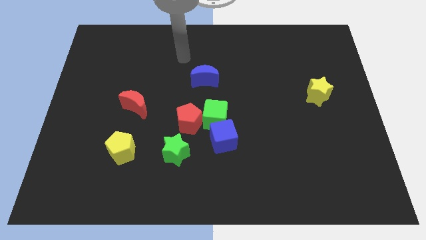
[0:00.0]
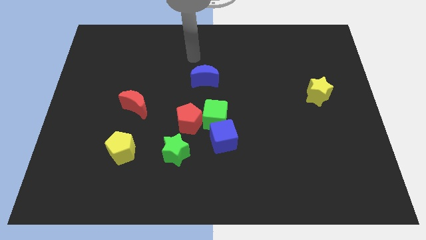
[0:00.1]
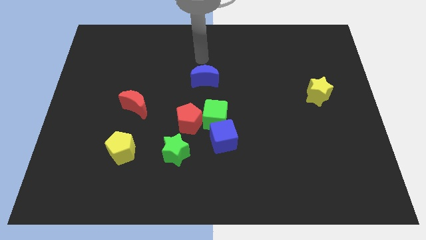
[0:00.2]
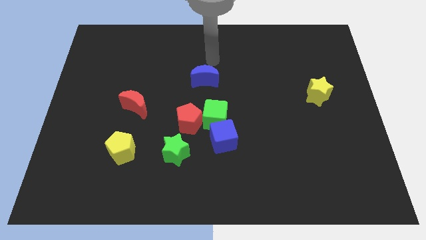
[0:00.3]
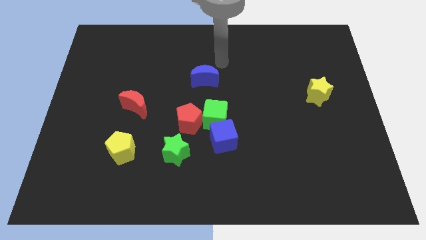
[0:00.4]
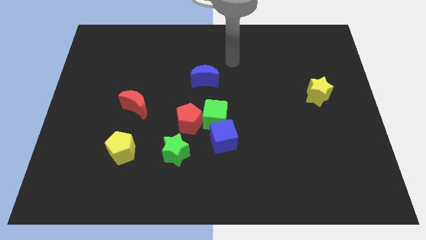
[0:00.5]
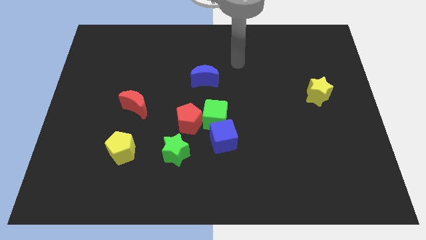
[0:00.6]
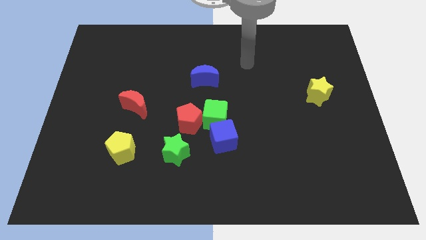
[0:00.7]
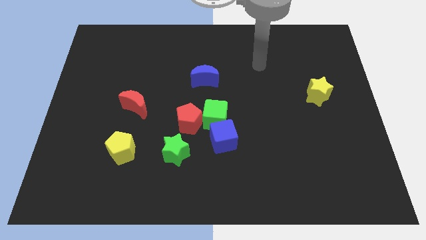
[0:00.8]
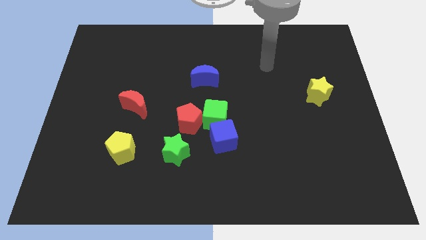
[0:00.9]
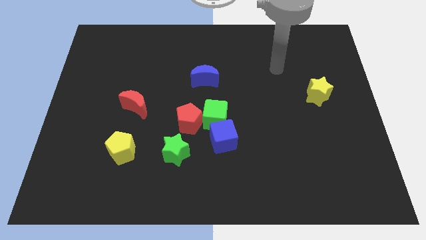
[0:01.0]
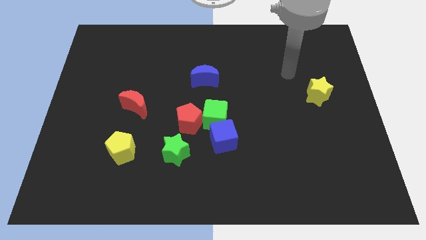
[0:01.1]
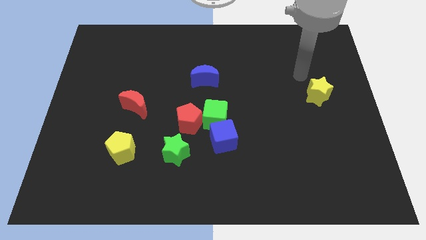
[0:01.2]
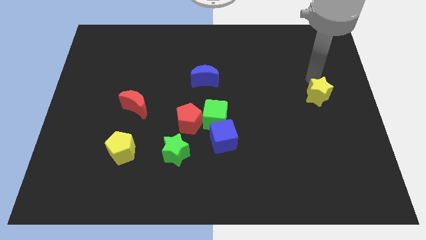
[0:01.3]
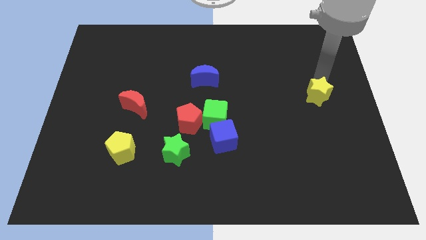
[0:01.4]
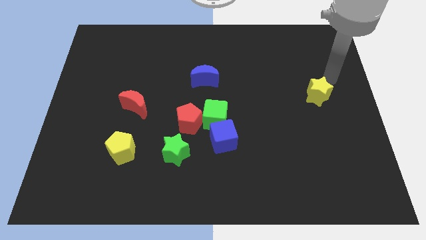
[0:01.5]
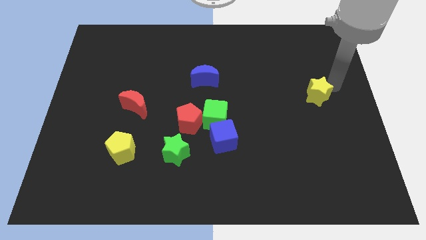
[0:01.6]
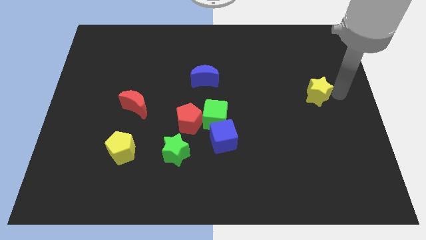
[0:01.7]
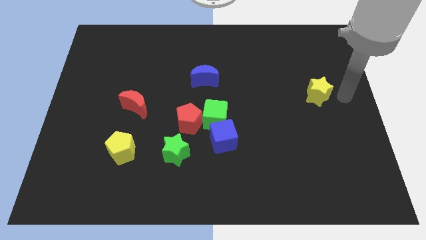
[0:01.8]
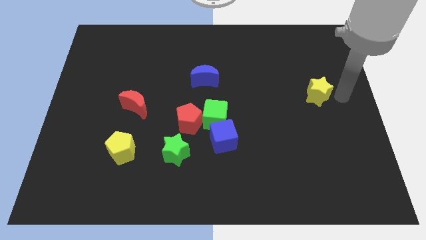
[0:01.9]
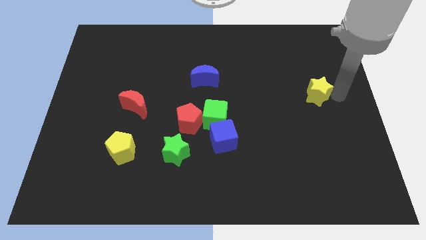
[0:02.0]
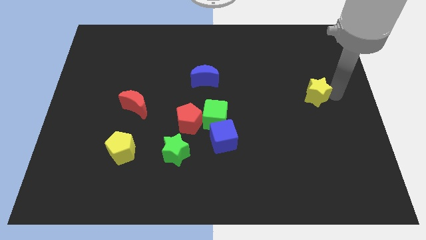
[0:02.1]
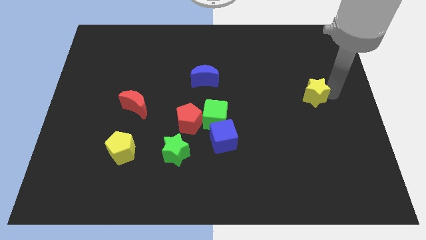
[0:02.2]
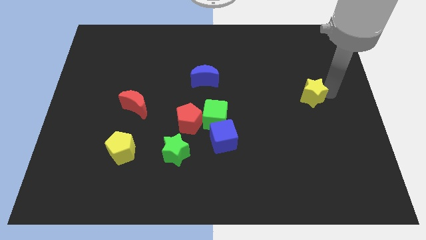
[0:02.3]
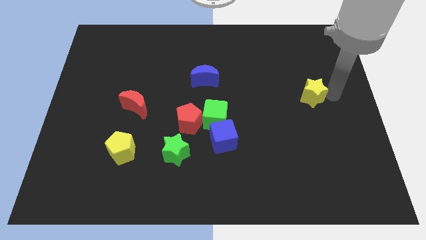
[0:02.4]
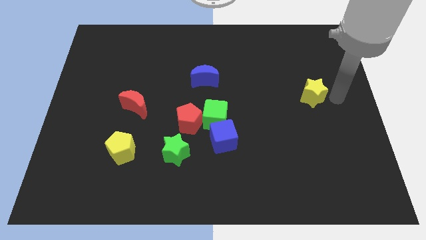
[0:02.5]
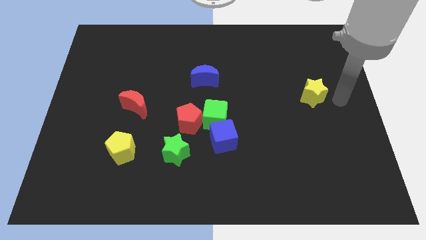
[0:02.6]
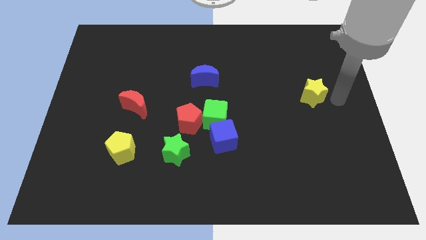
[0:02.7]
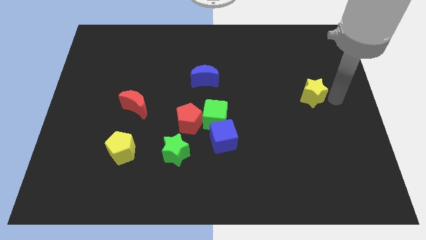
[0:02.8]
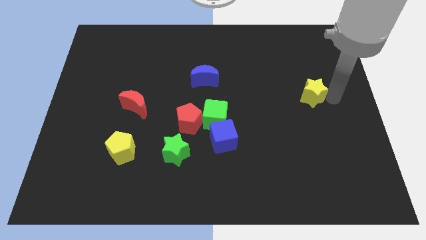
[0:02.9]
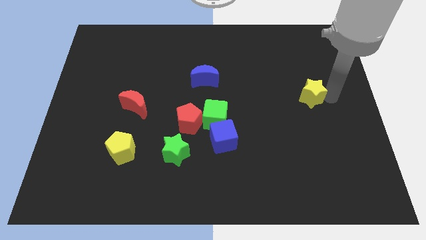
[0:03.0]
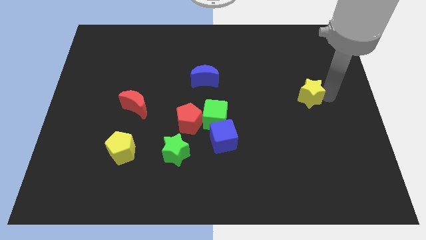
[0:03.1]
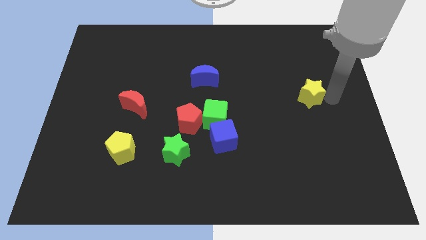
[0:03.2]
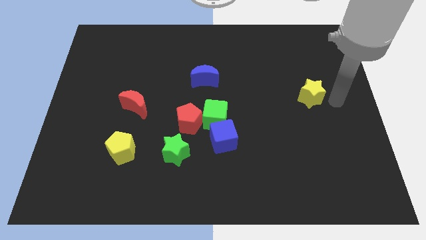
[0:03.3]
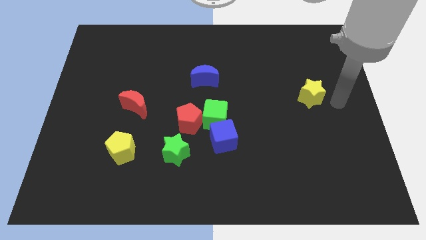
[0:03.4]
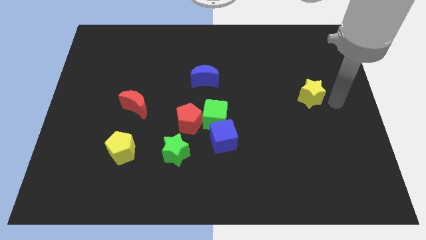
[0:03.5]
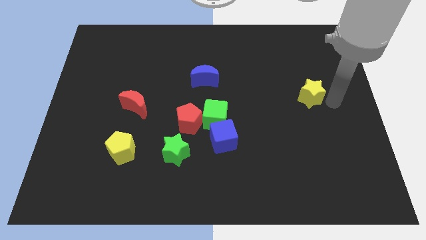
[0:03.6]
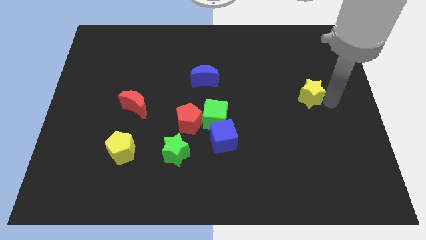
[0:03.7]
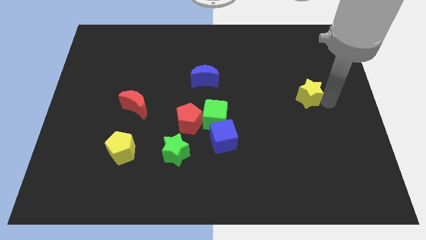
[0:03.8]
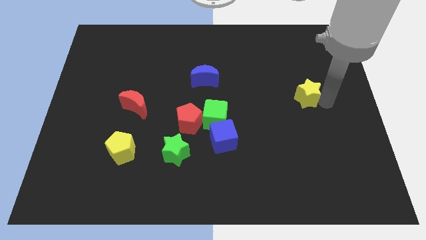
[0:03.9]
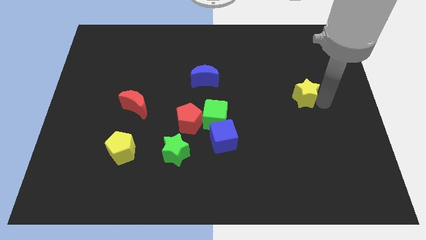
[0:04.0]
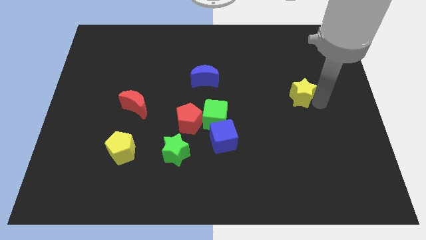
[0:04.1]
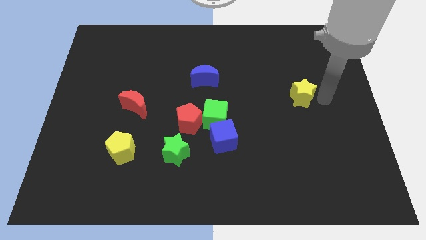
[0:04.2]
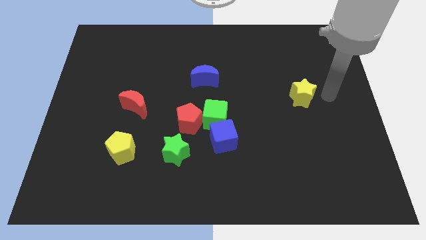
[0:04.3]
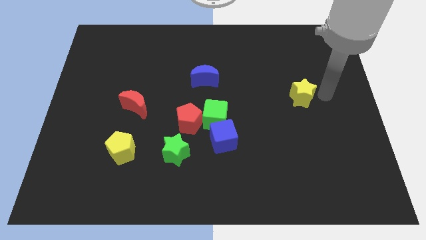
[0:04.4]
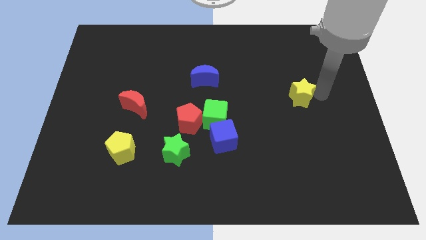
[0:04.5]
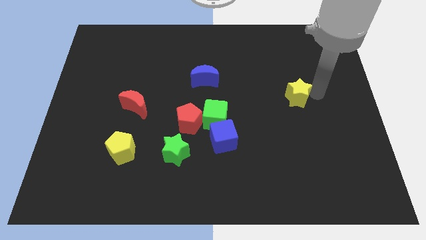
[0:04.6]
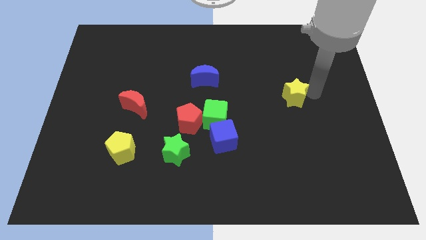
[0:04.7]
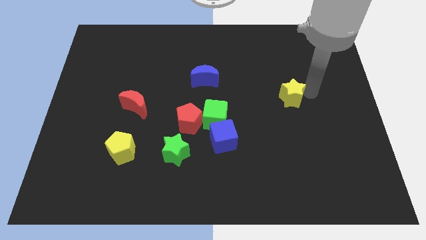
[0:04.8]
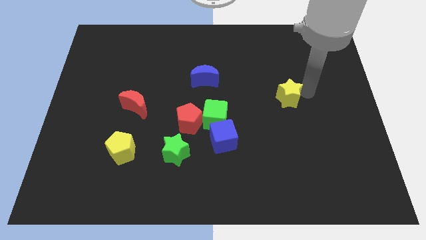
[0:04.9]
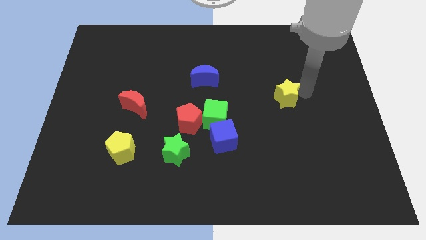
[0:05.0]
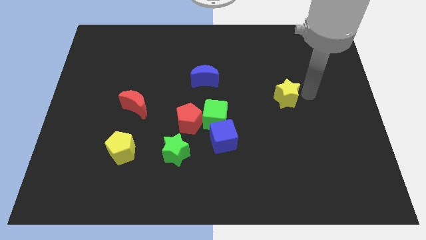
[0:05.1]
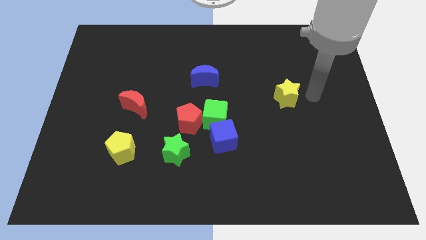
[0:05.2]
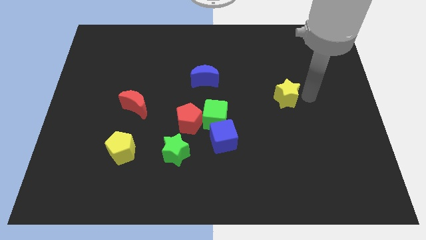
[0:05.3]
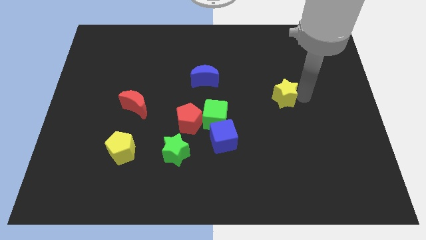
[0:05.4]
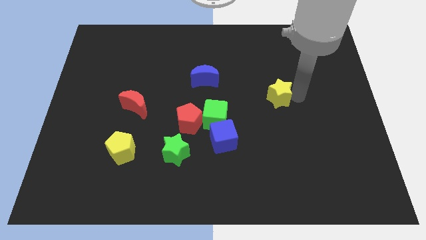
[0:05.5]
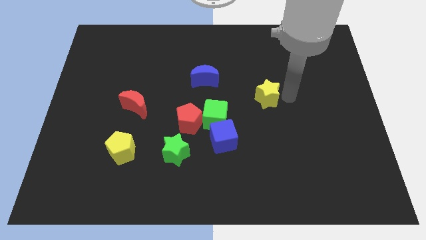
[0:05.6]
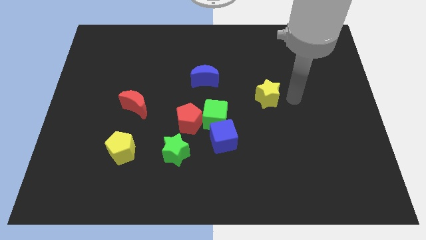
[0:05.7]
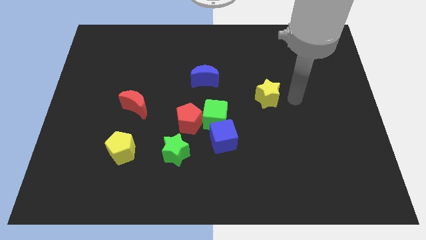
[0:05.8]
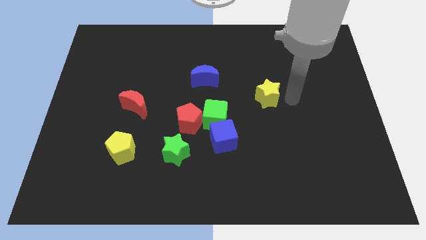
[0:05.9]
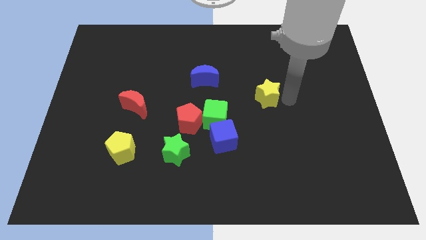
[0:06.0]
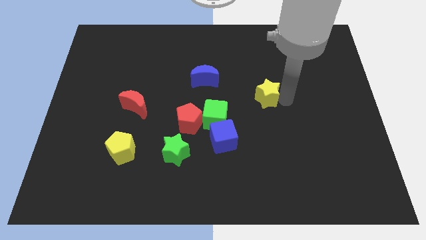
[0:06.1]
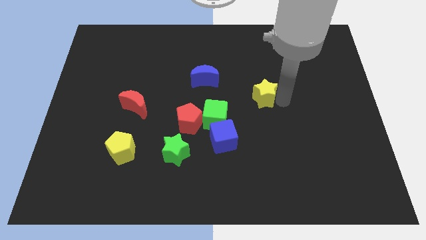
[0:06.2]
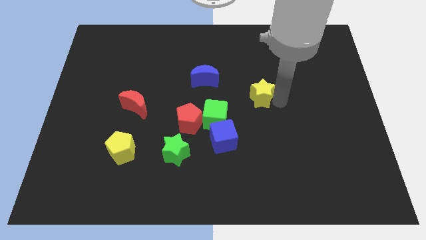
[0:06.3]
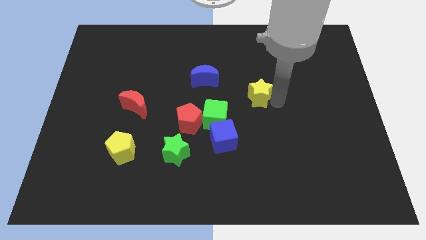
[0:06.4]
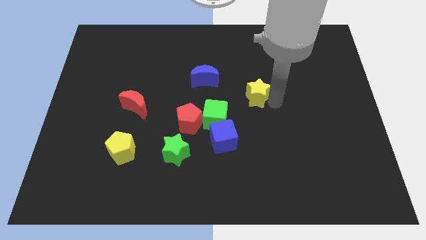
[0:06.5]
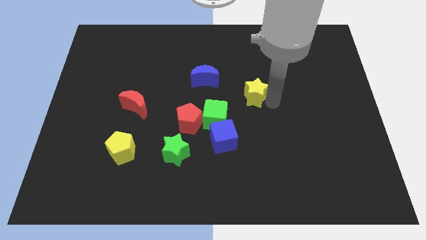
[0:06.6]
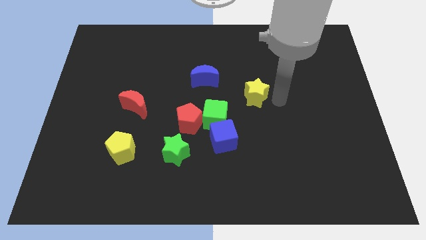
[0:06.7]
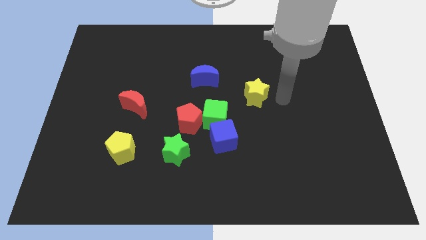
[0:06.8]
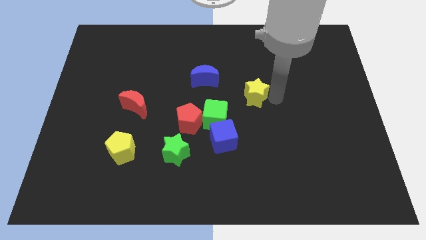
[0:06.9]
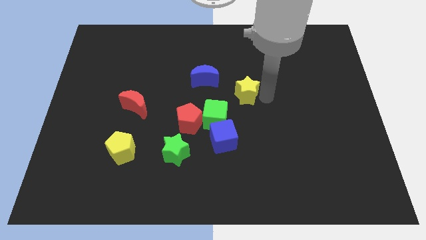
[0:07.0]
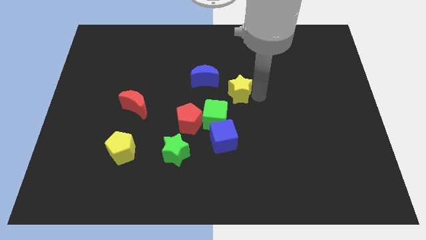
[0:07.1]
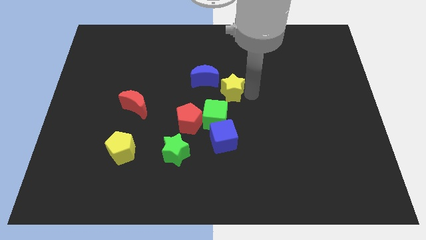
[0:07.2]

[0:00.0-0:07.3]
push the yellow star to the left

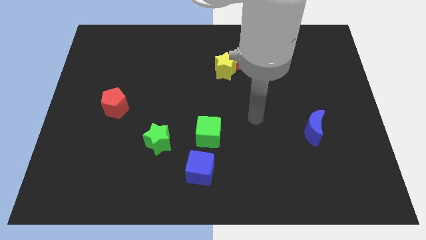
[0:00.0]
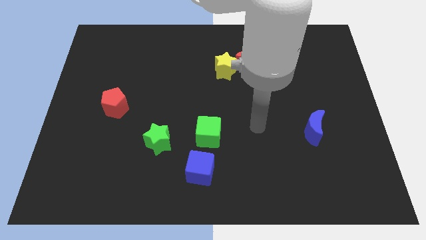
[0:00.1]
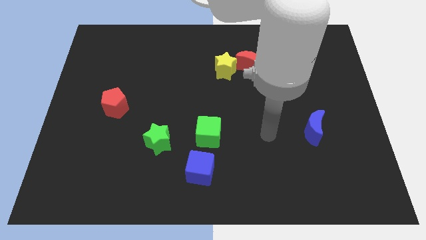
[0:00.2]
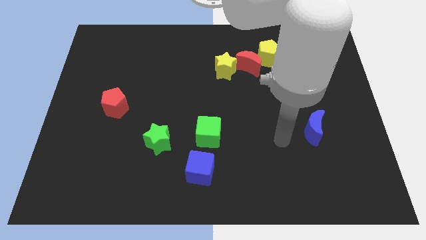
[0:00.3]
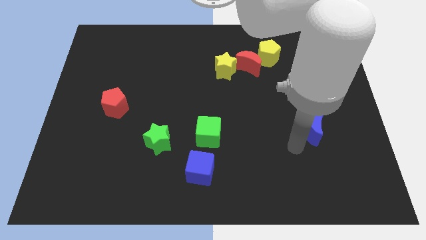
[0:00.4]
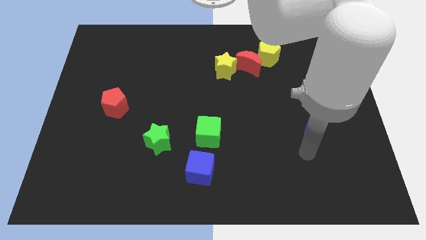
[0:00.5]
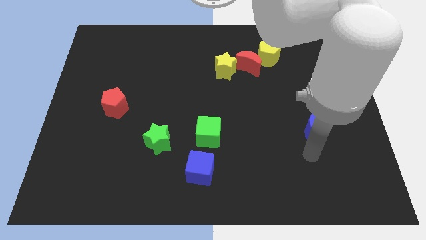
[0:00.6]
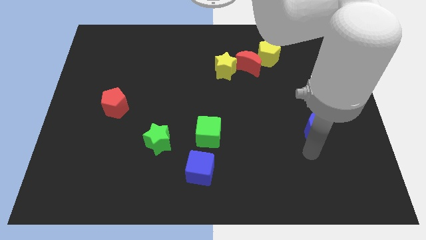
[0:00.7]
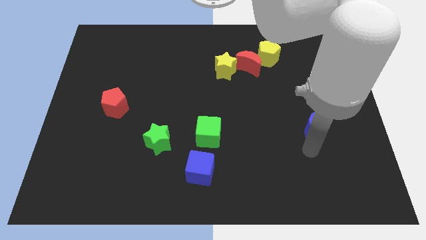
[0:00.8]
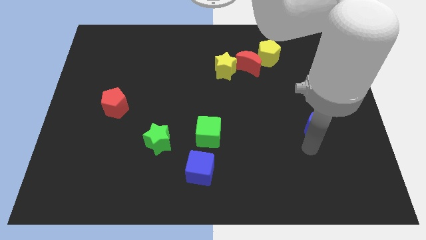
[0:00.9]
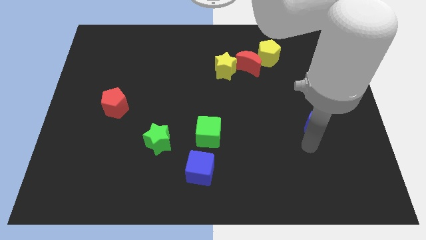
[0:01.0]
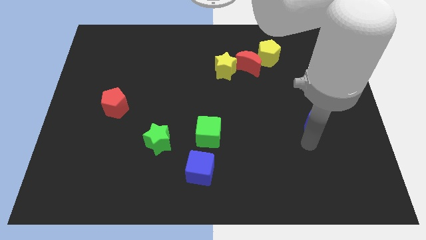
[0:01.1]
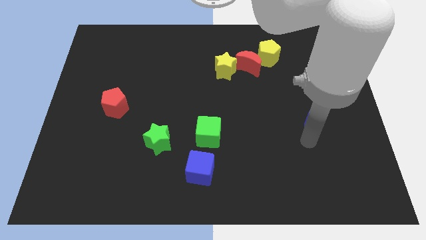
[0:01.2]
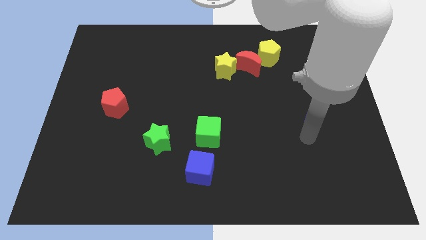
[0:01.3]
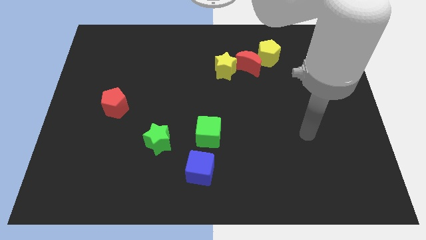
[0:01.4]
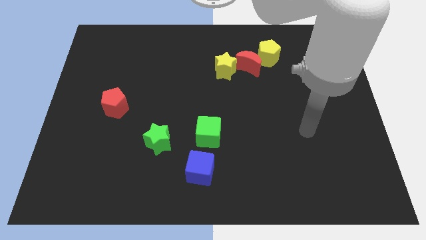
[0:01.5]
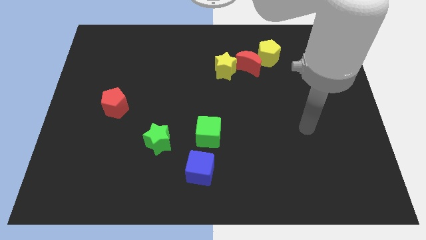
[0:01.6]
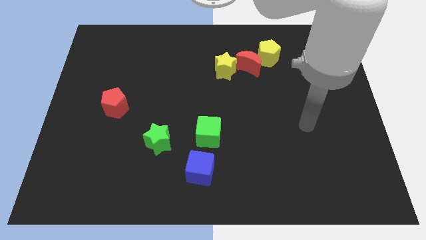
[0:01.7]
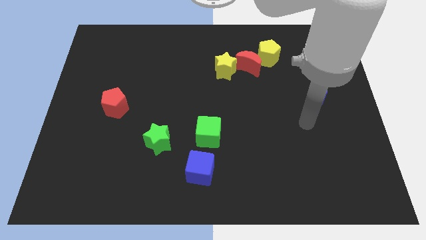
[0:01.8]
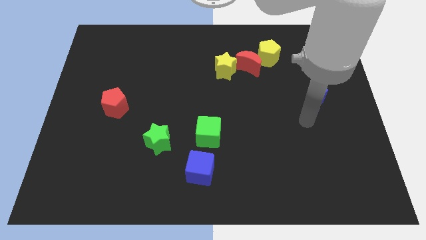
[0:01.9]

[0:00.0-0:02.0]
slightly push the blue moon upwards
